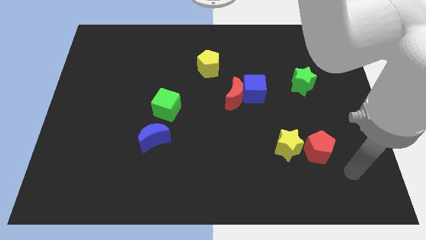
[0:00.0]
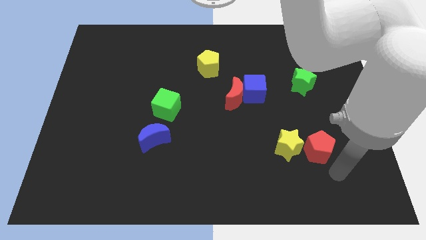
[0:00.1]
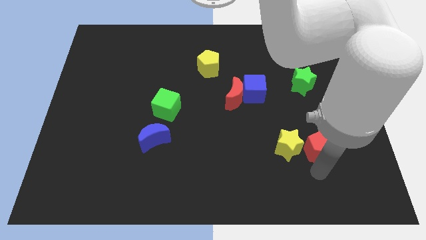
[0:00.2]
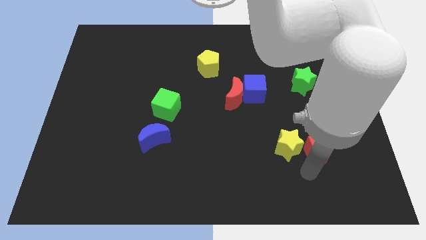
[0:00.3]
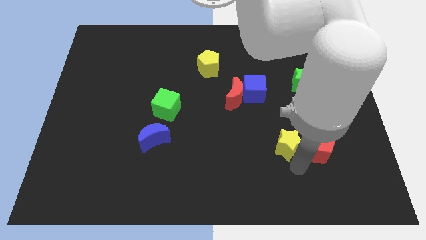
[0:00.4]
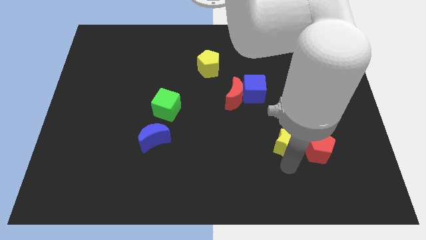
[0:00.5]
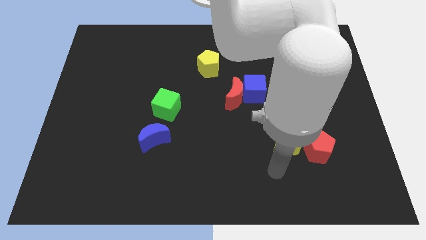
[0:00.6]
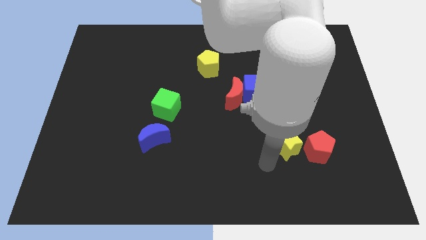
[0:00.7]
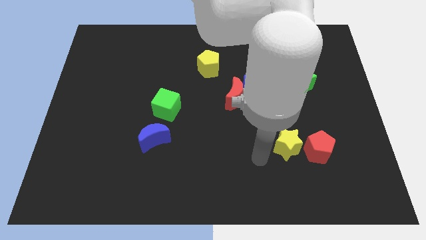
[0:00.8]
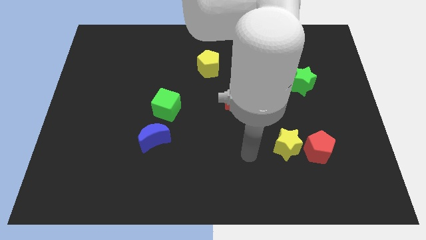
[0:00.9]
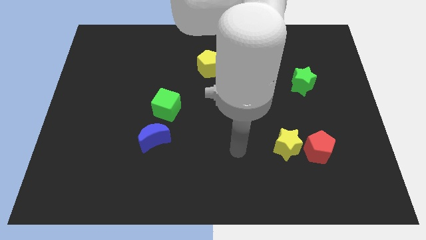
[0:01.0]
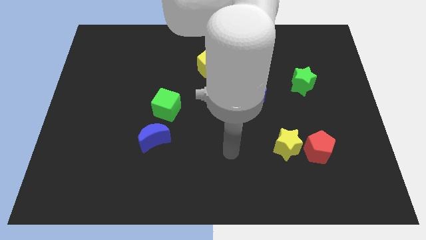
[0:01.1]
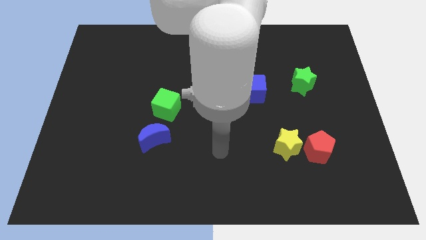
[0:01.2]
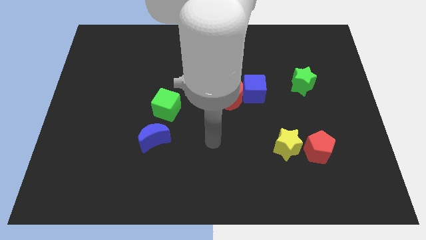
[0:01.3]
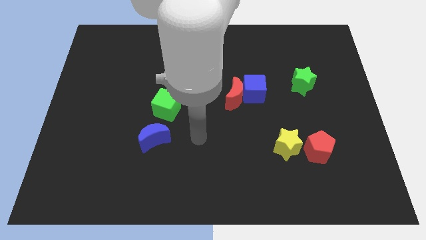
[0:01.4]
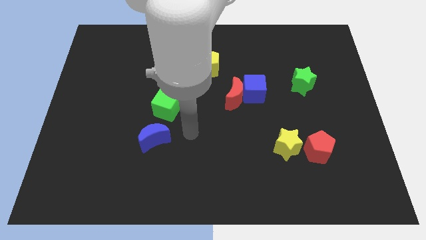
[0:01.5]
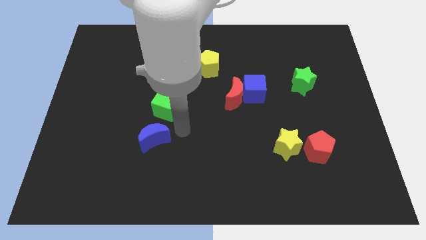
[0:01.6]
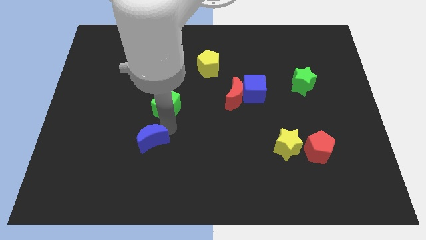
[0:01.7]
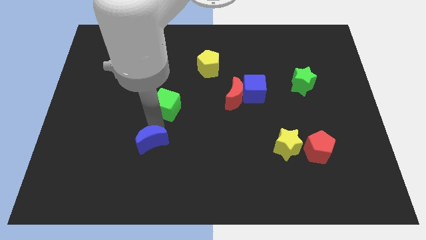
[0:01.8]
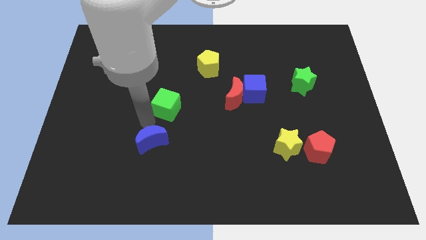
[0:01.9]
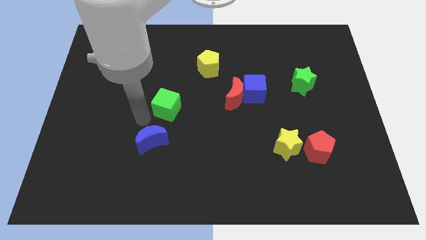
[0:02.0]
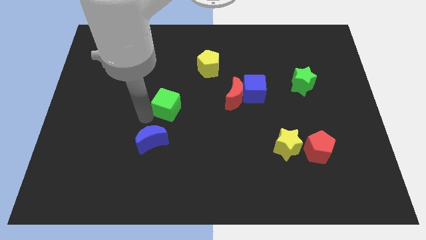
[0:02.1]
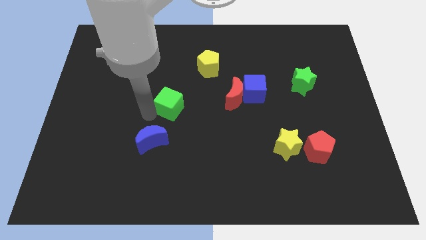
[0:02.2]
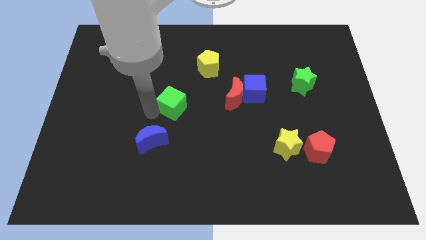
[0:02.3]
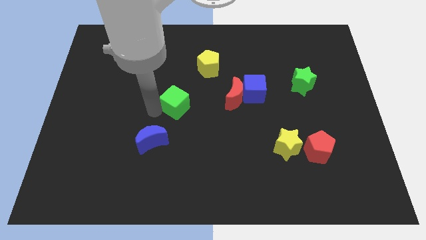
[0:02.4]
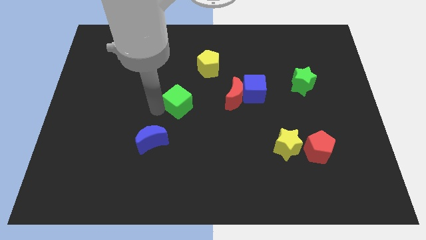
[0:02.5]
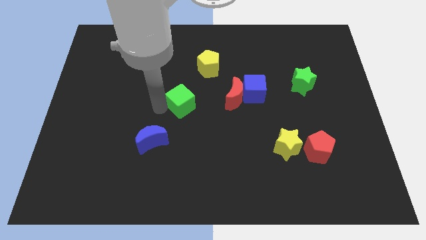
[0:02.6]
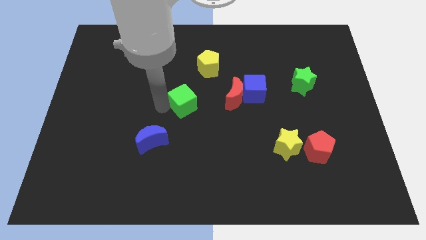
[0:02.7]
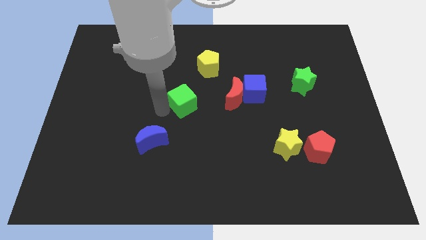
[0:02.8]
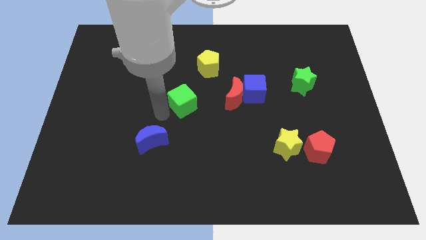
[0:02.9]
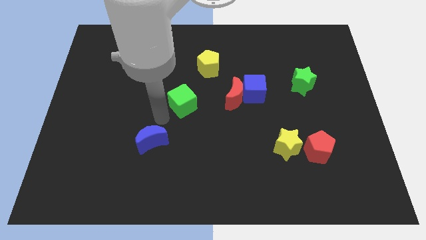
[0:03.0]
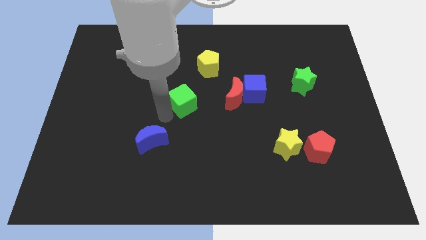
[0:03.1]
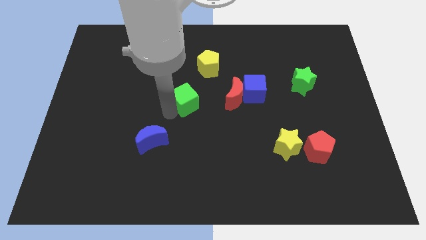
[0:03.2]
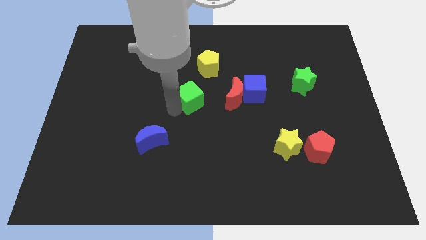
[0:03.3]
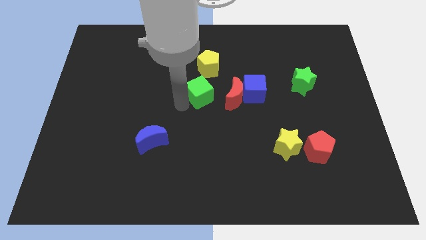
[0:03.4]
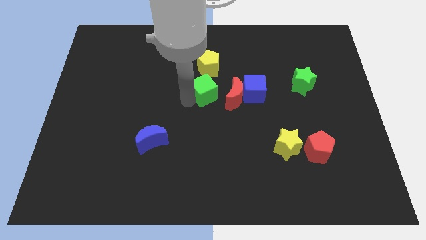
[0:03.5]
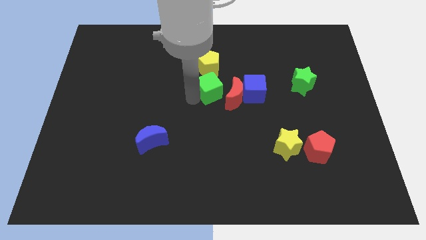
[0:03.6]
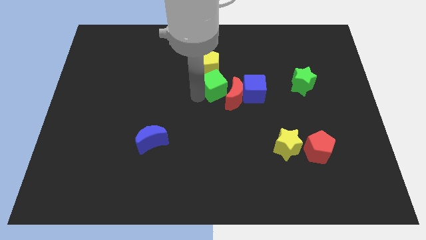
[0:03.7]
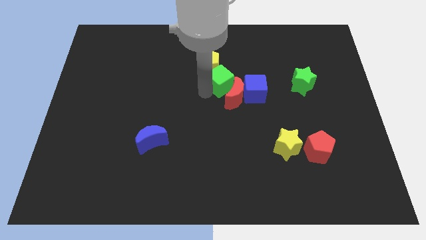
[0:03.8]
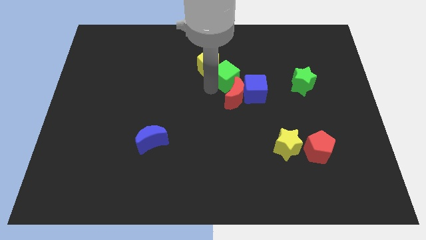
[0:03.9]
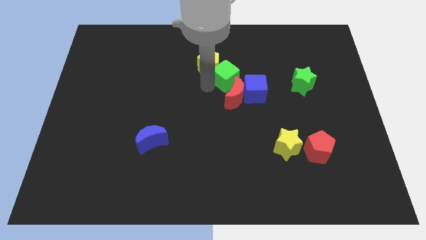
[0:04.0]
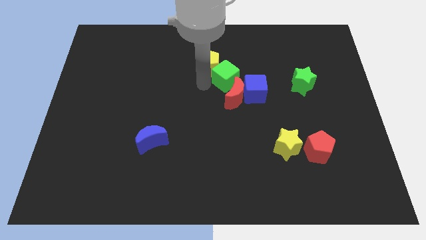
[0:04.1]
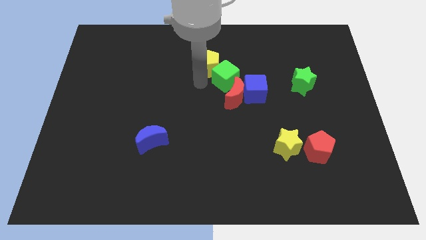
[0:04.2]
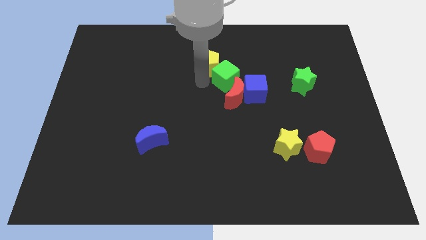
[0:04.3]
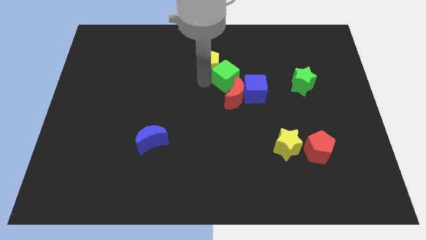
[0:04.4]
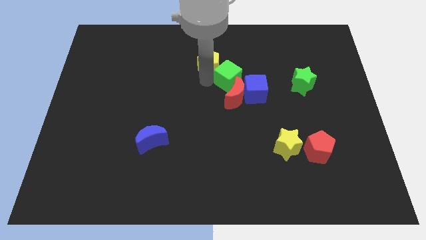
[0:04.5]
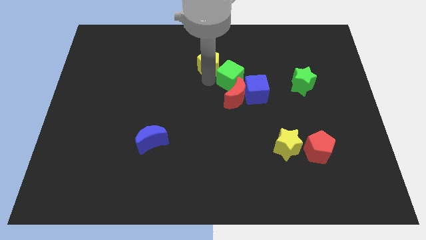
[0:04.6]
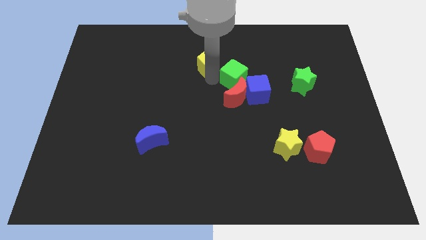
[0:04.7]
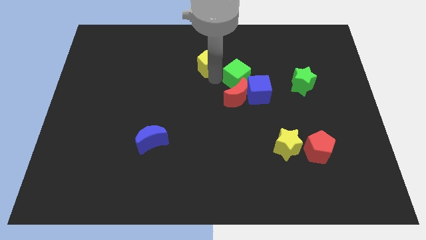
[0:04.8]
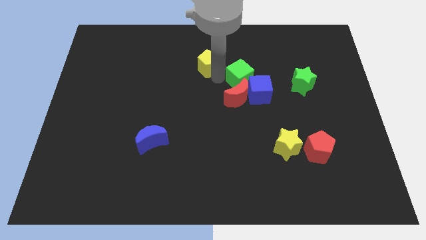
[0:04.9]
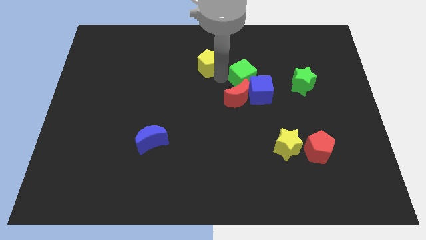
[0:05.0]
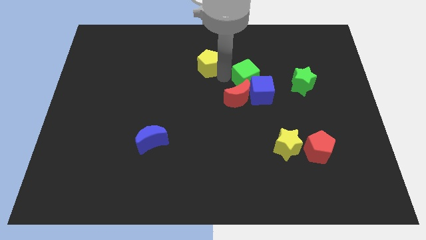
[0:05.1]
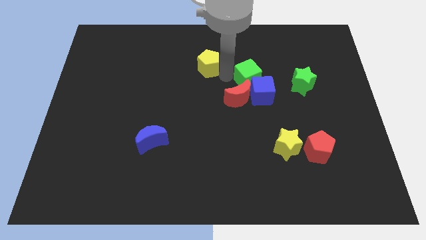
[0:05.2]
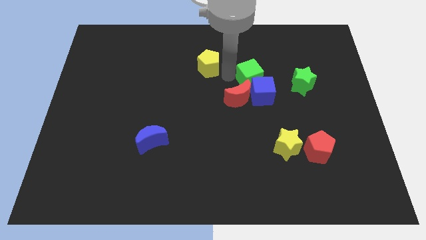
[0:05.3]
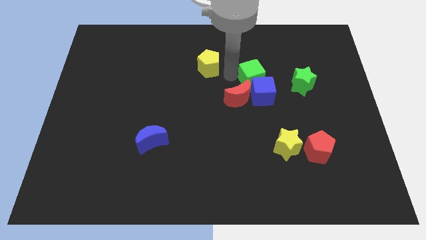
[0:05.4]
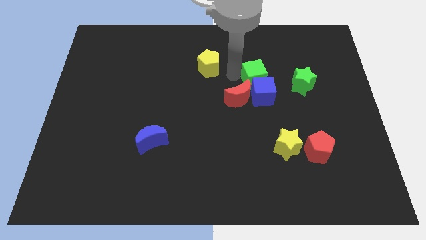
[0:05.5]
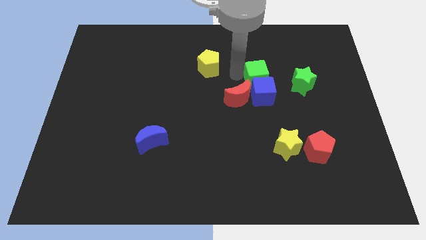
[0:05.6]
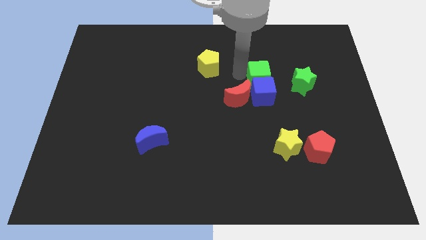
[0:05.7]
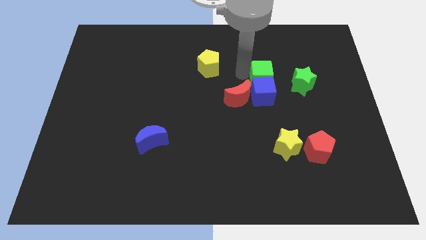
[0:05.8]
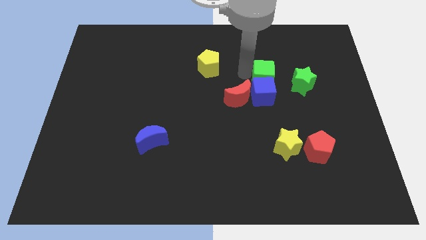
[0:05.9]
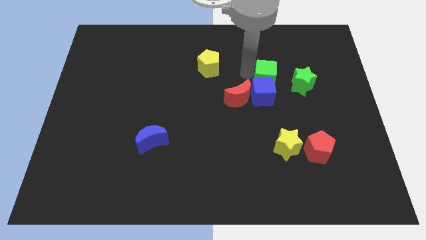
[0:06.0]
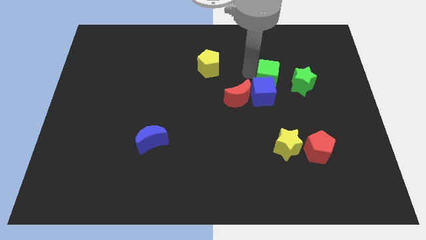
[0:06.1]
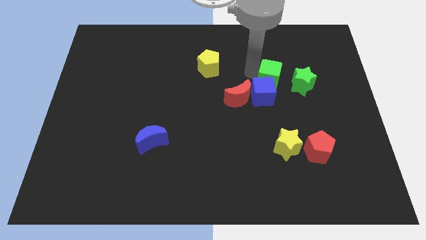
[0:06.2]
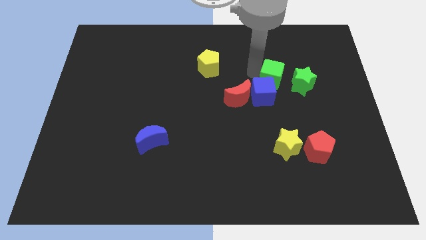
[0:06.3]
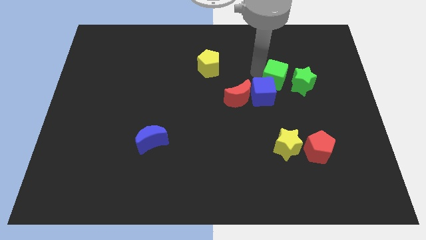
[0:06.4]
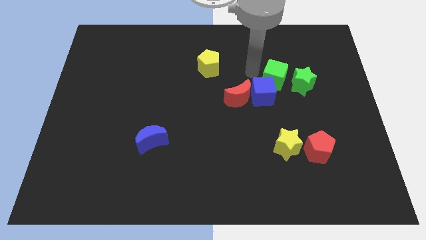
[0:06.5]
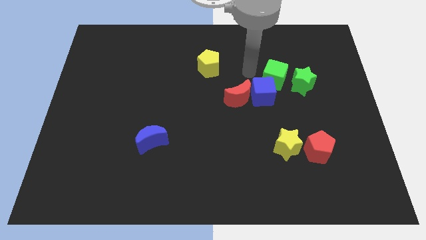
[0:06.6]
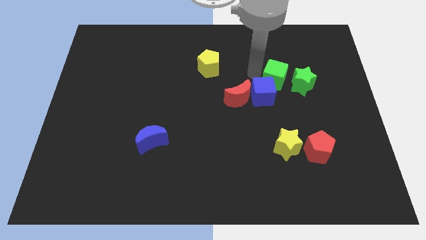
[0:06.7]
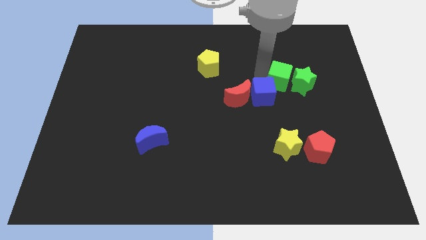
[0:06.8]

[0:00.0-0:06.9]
push the green cube close to the green star

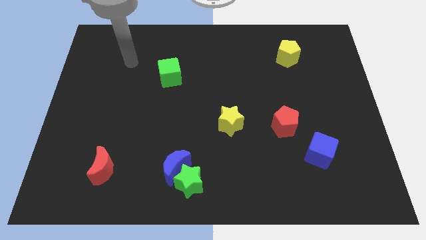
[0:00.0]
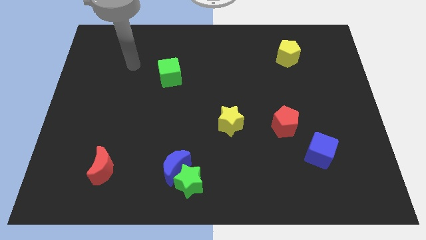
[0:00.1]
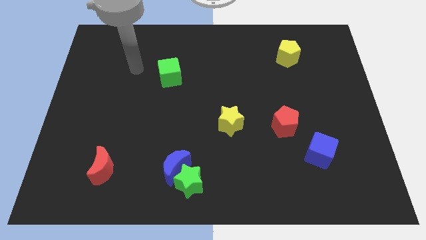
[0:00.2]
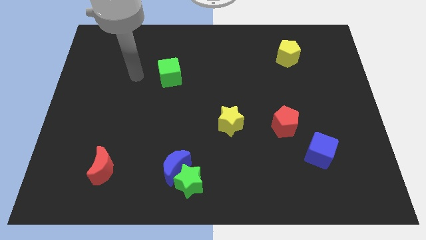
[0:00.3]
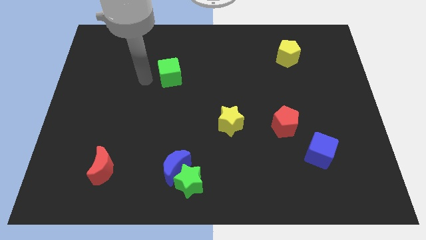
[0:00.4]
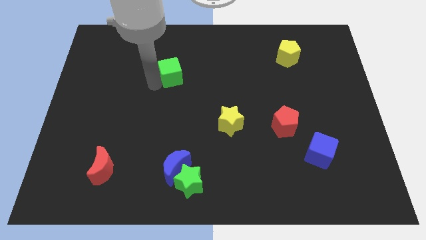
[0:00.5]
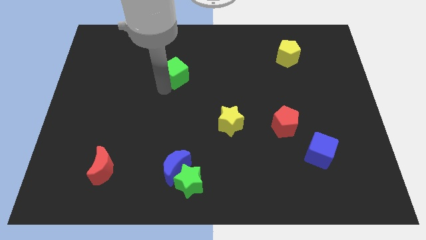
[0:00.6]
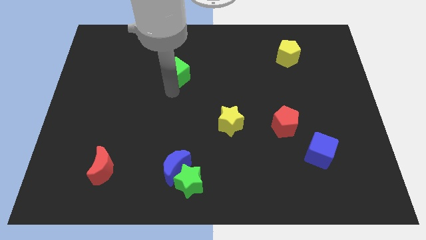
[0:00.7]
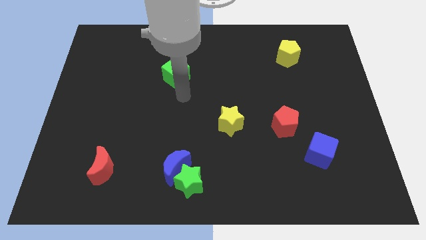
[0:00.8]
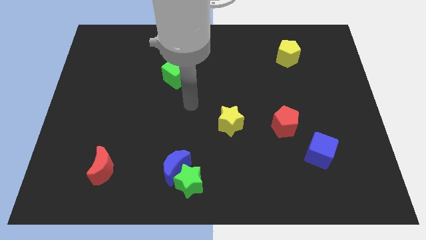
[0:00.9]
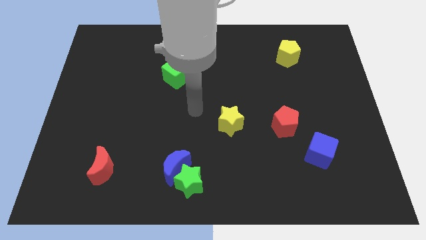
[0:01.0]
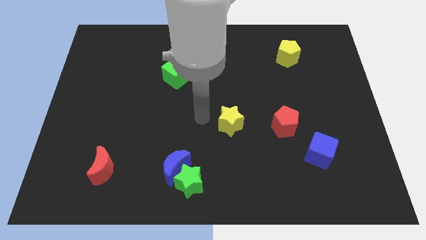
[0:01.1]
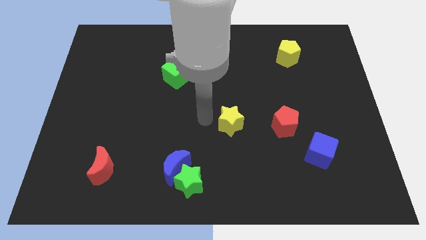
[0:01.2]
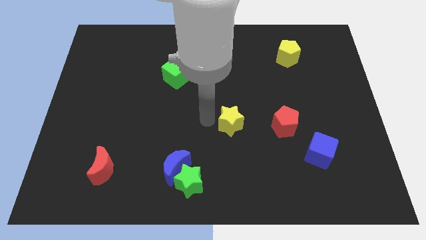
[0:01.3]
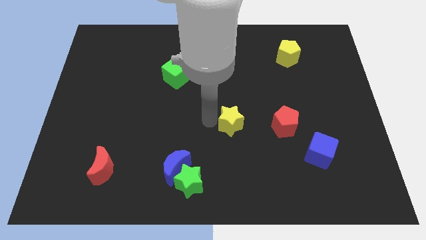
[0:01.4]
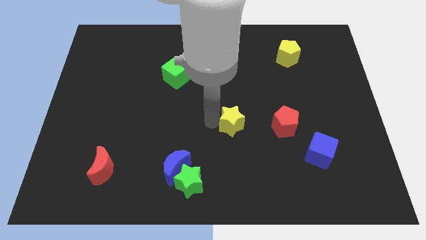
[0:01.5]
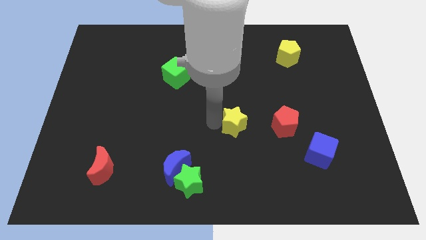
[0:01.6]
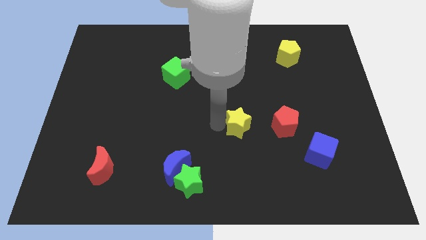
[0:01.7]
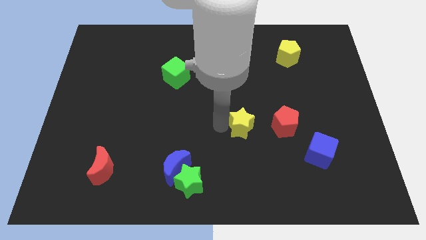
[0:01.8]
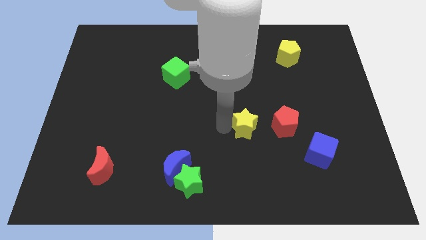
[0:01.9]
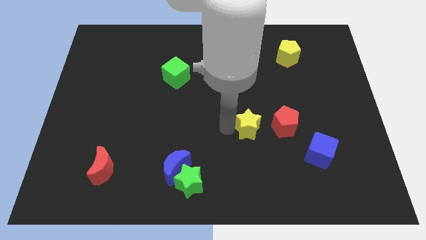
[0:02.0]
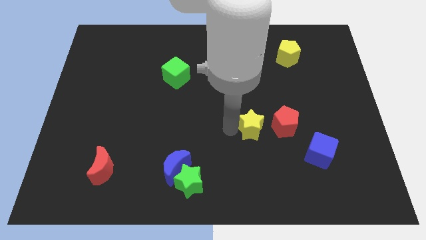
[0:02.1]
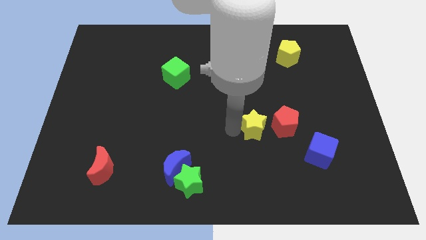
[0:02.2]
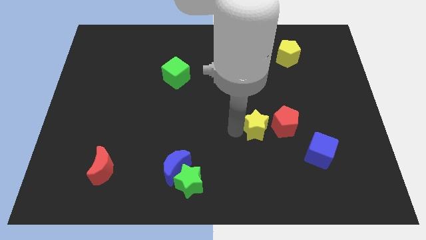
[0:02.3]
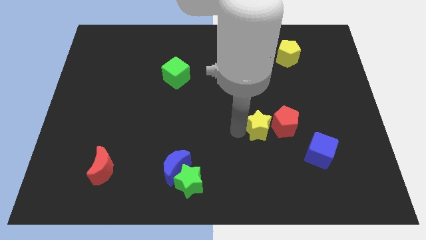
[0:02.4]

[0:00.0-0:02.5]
push the yellow star close to the red pentagon
